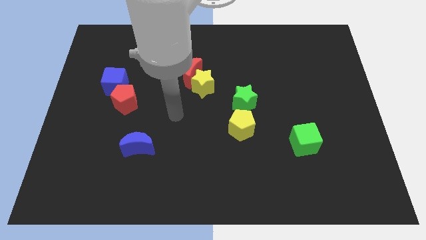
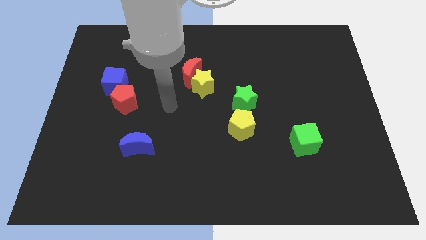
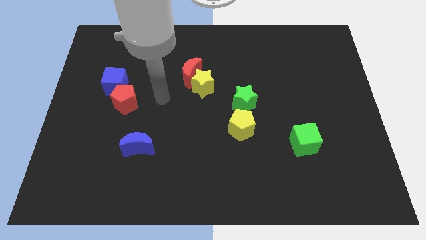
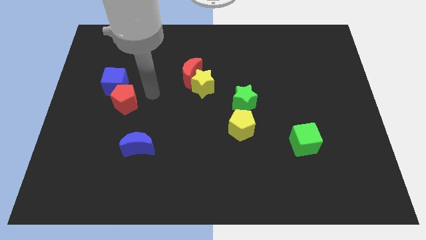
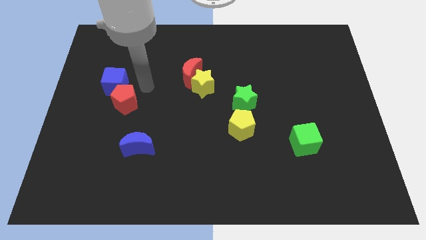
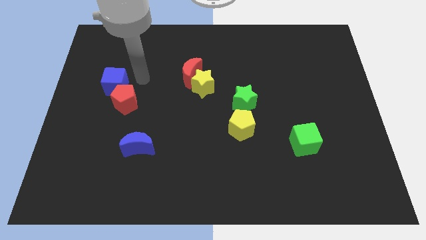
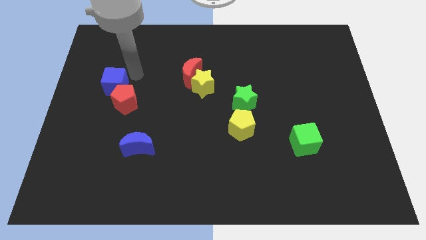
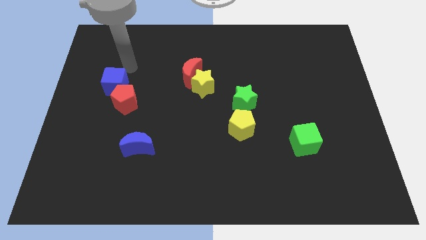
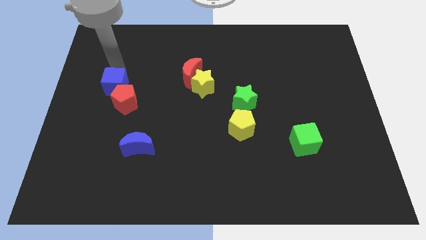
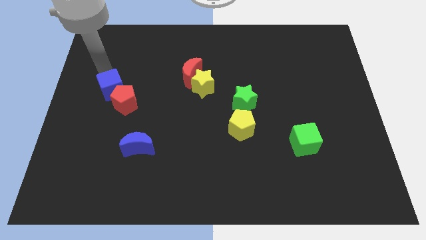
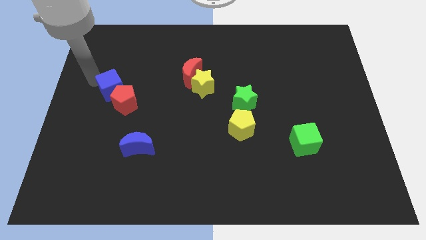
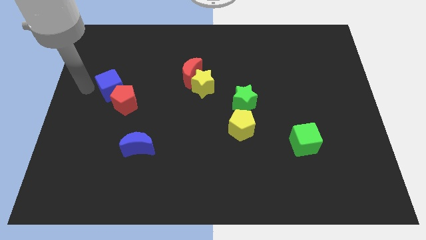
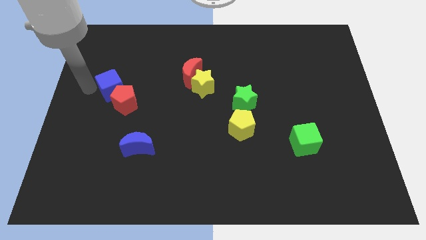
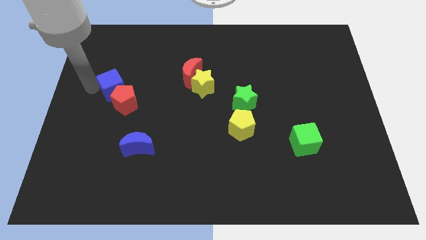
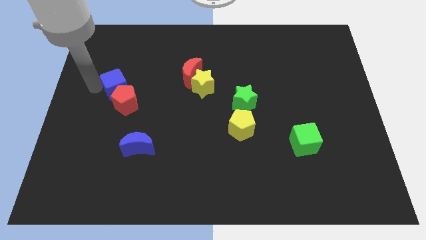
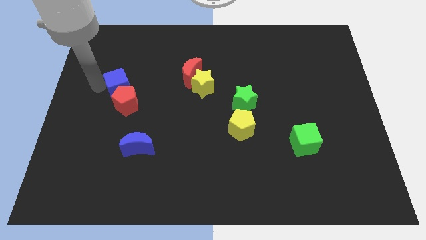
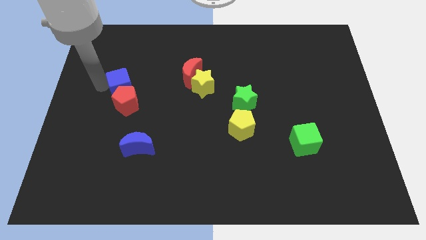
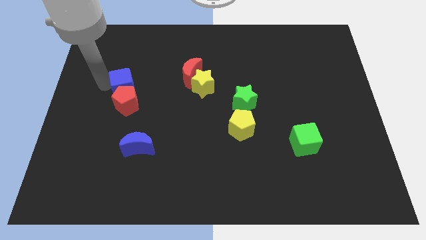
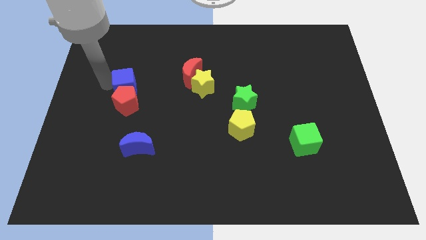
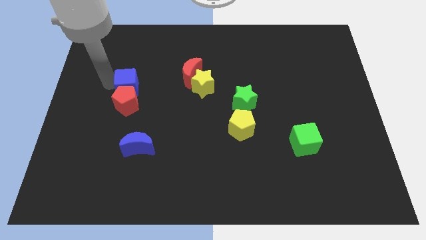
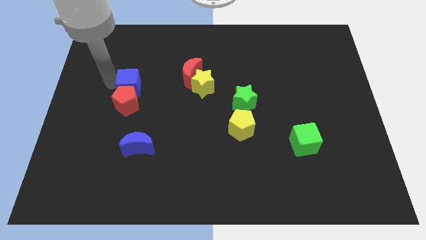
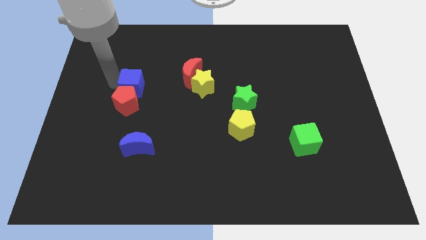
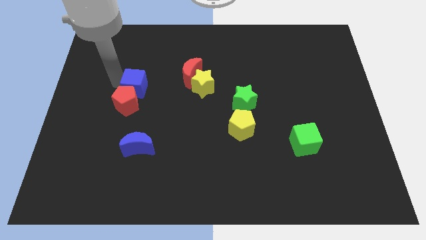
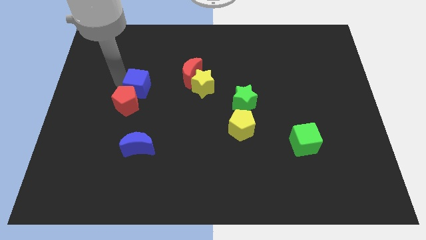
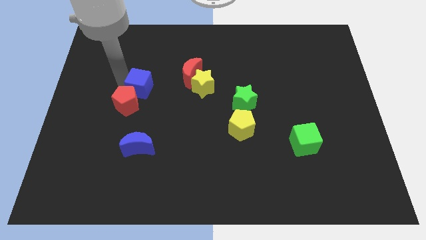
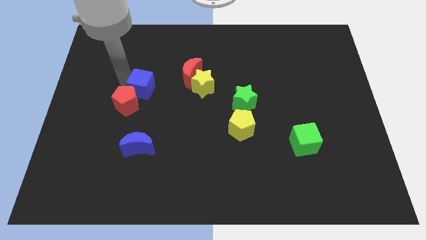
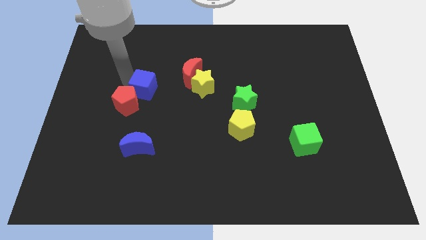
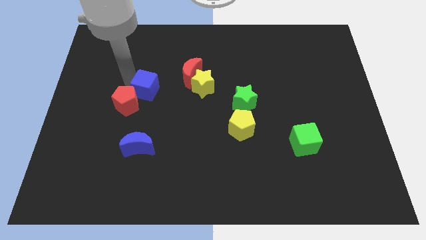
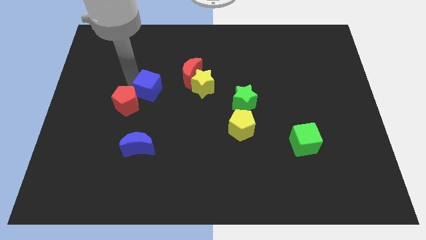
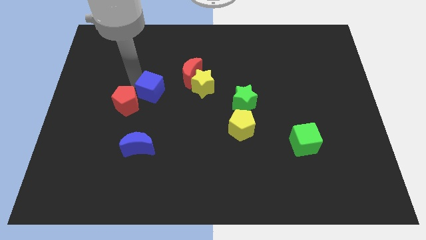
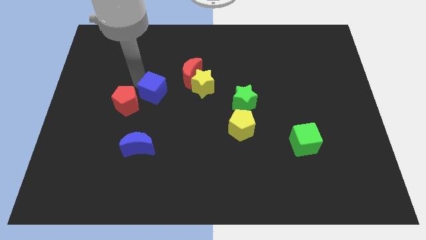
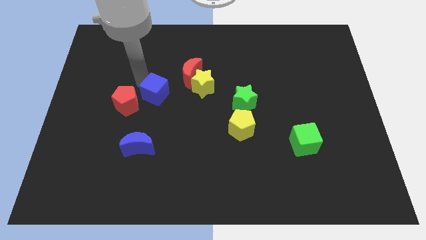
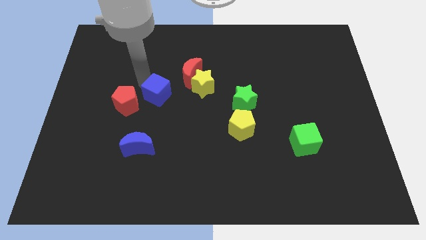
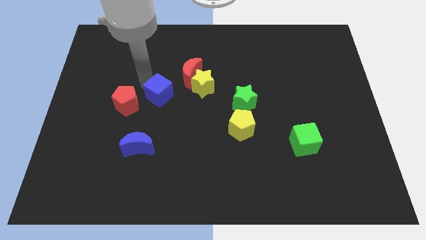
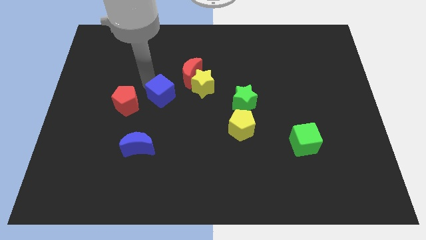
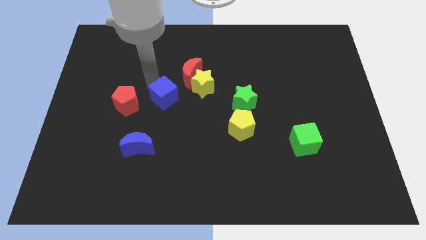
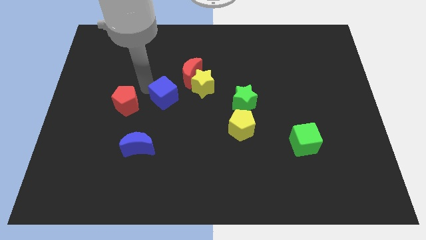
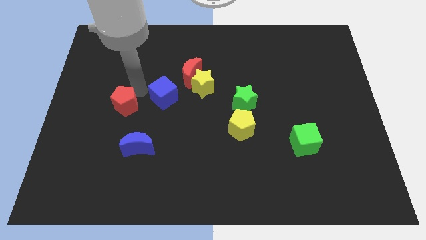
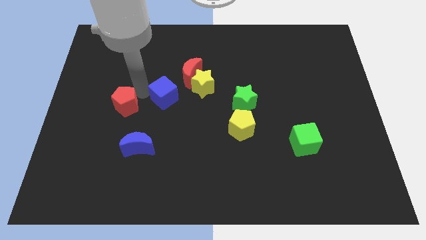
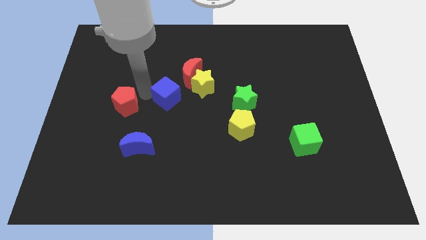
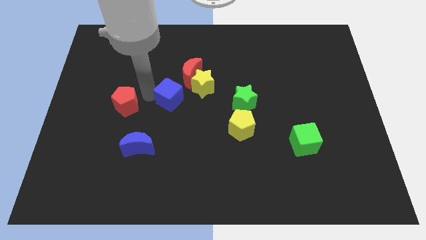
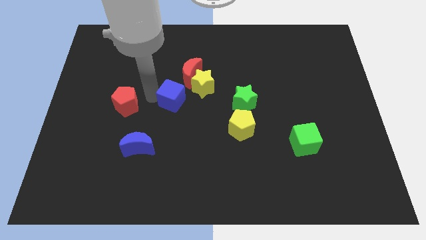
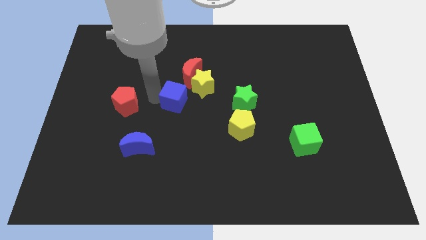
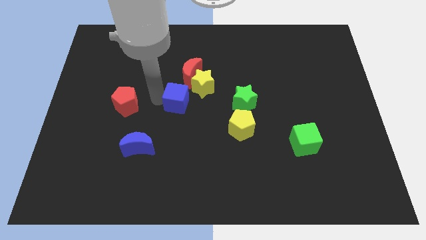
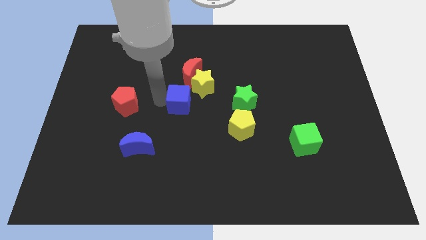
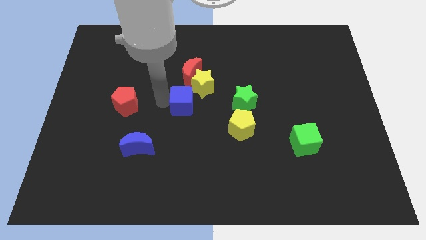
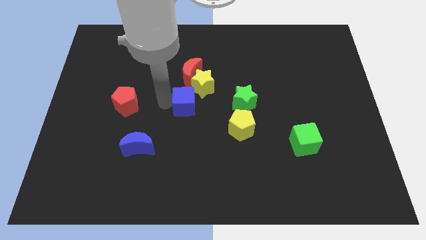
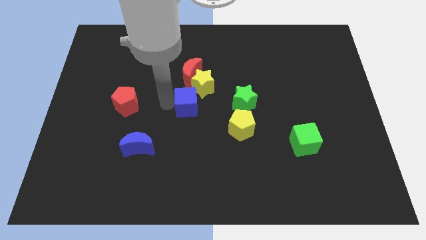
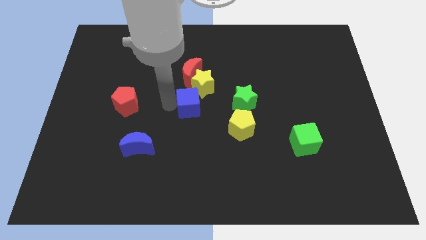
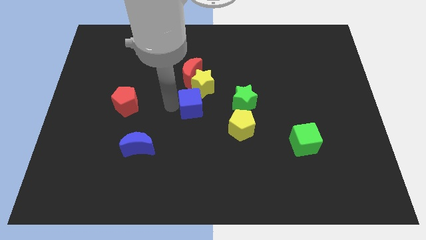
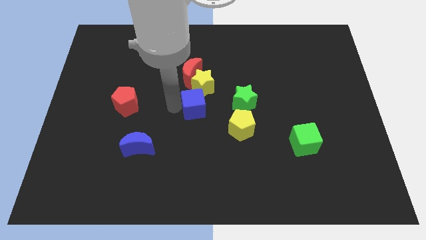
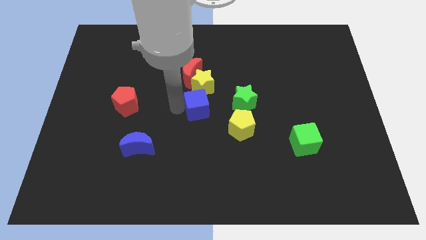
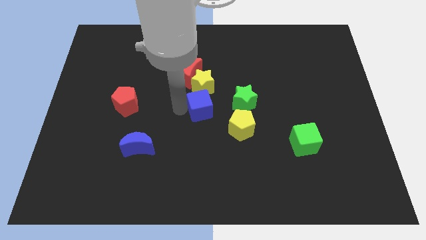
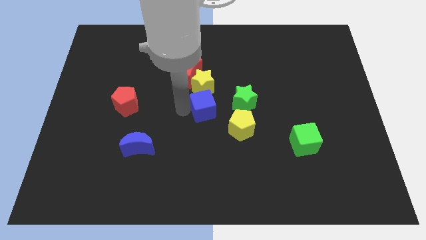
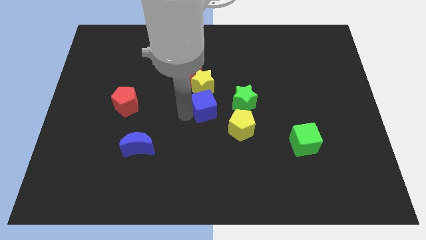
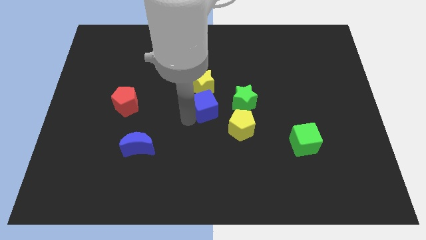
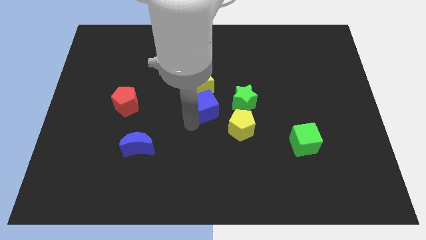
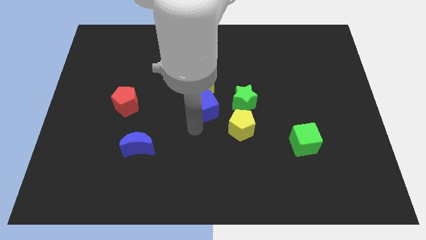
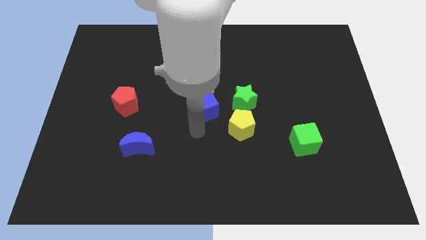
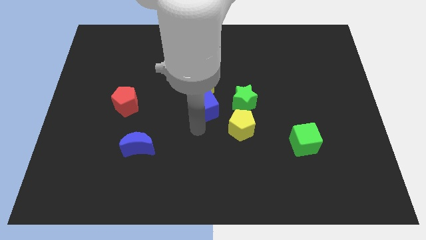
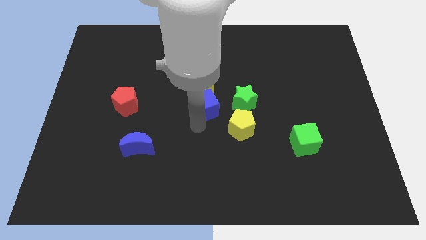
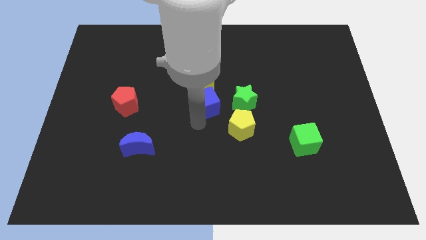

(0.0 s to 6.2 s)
move the blue cube to the bottom right side of the red moon

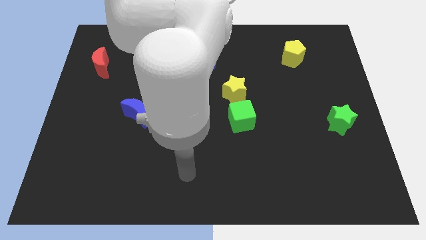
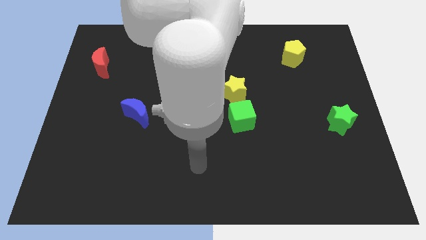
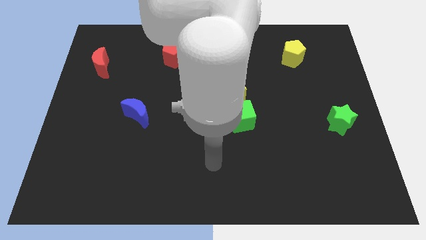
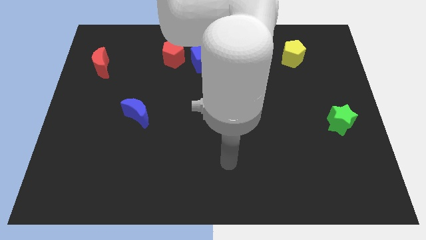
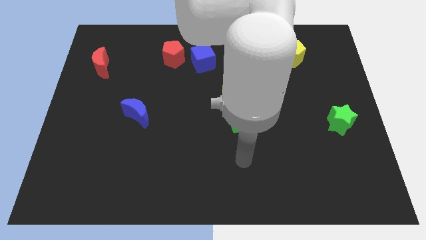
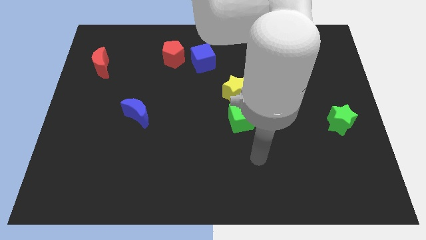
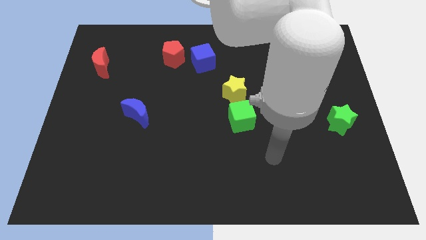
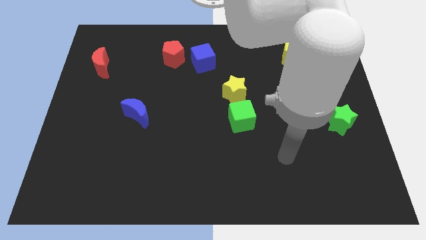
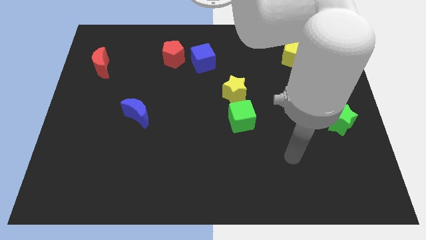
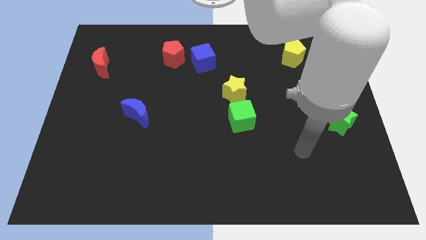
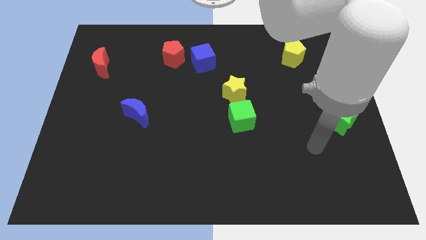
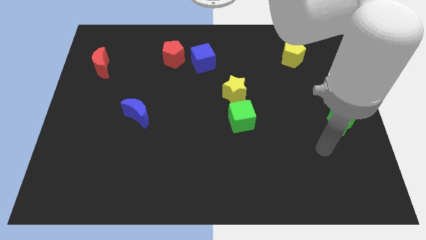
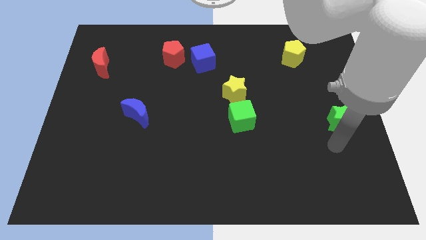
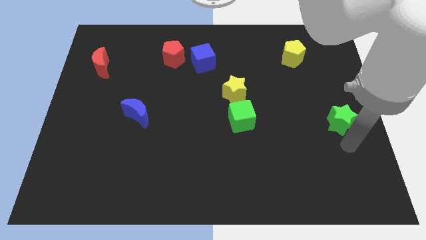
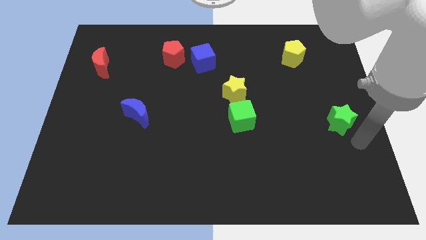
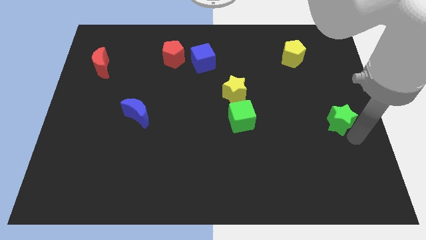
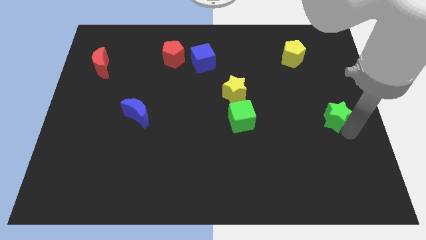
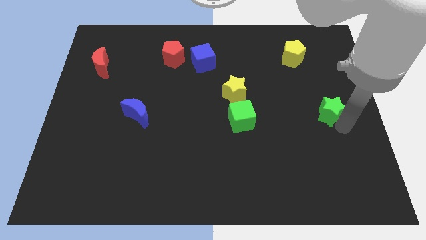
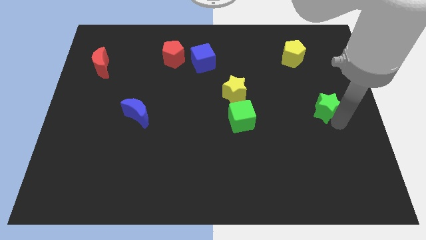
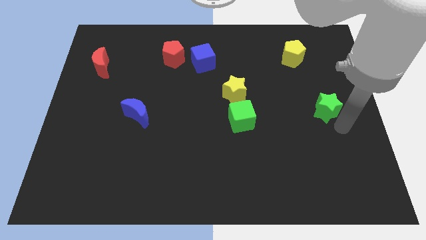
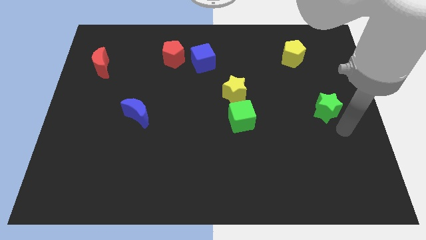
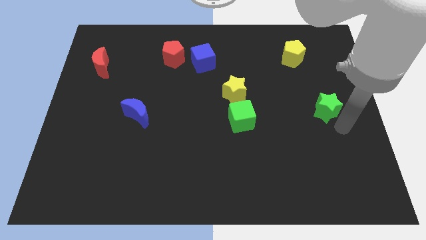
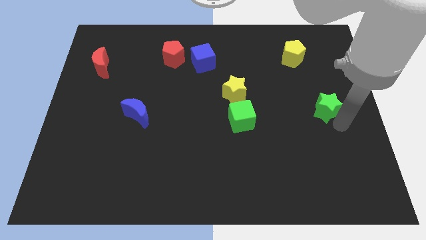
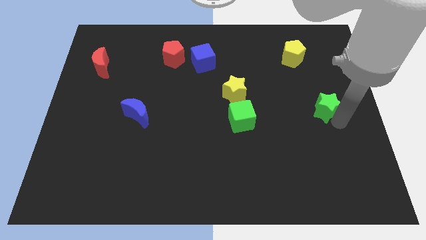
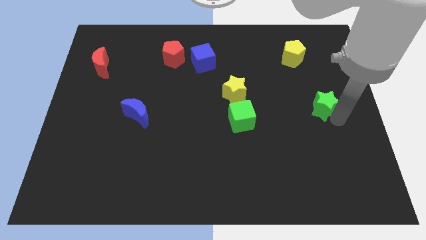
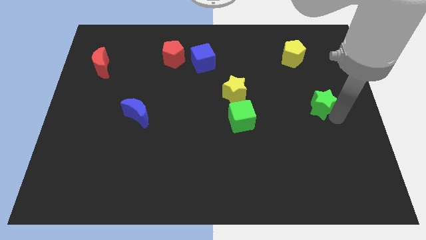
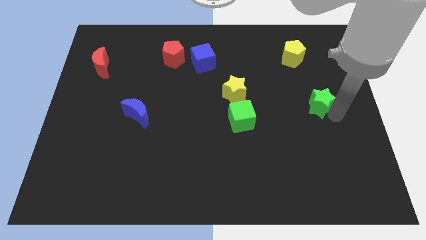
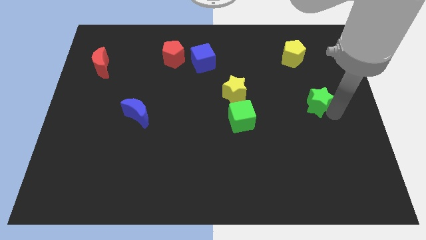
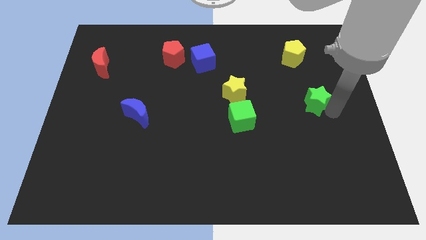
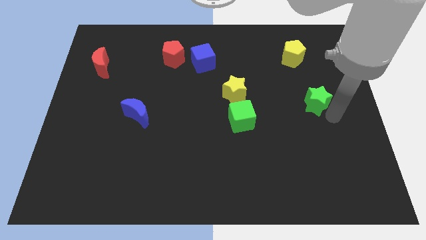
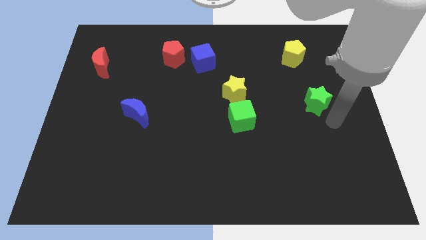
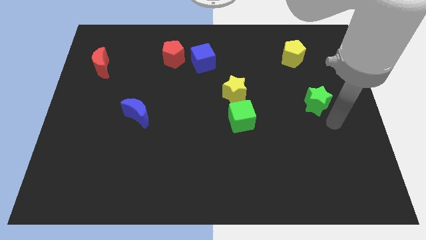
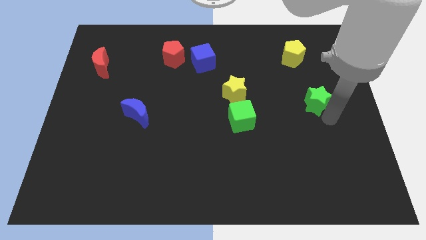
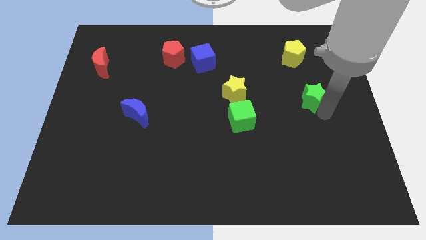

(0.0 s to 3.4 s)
move the green star below the yellow pentagon
